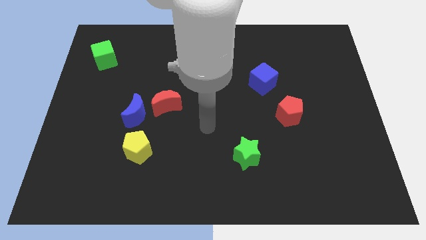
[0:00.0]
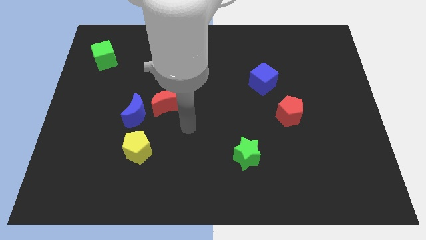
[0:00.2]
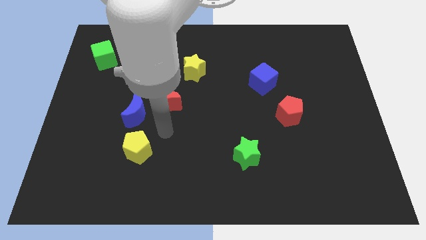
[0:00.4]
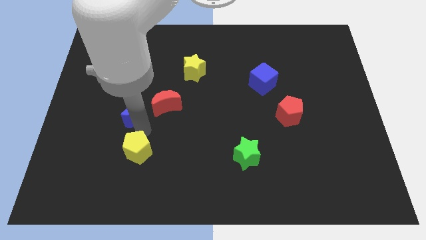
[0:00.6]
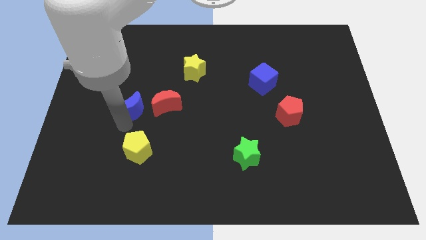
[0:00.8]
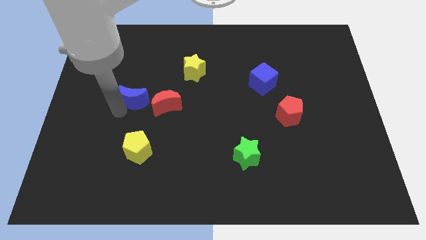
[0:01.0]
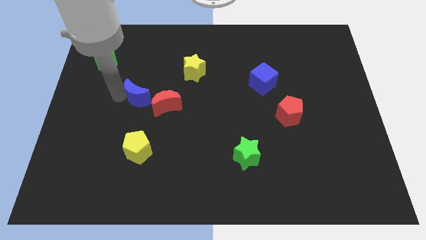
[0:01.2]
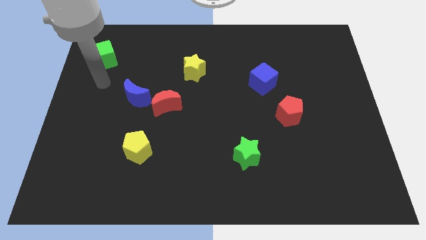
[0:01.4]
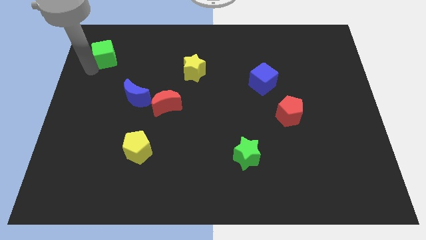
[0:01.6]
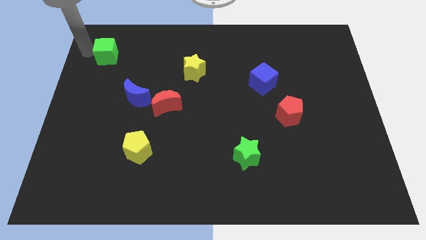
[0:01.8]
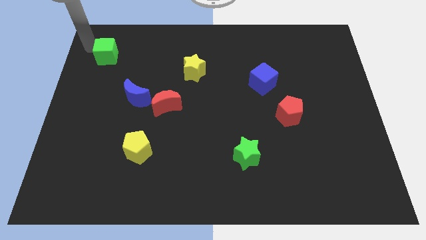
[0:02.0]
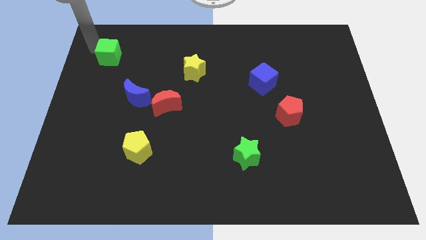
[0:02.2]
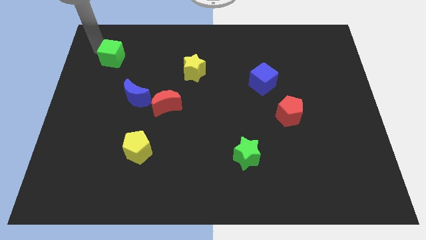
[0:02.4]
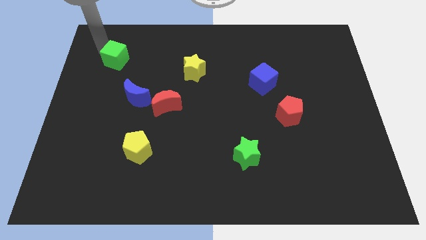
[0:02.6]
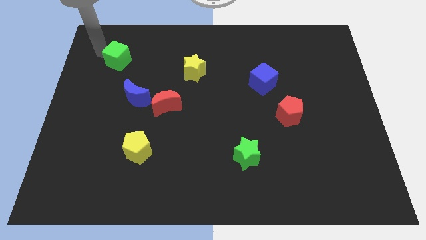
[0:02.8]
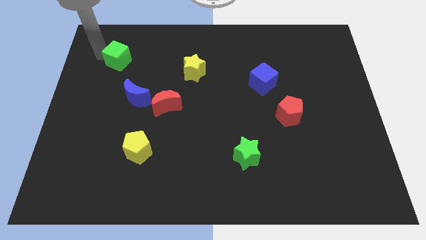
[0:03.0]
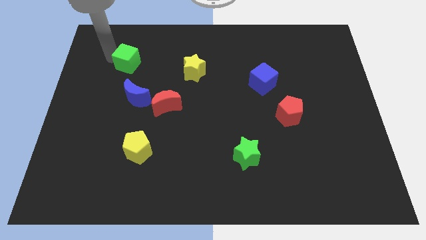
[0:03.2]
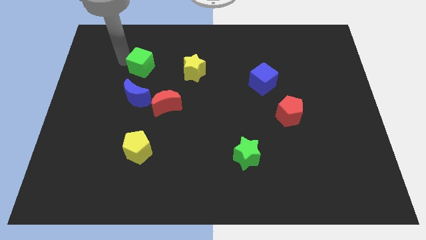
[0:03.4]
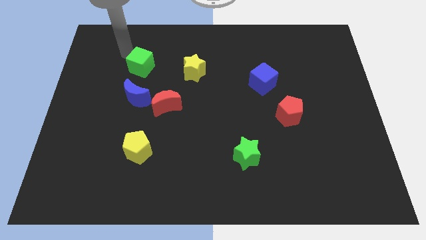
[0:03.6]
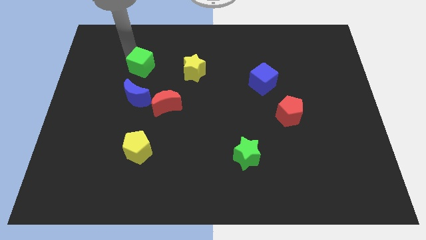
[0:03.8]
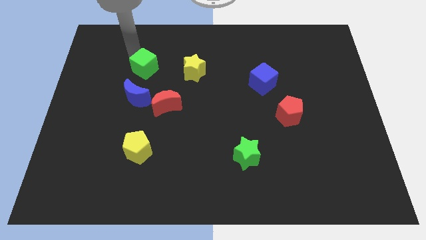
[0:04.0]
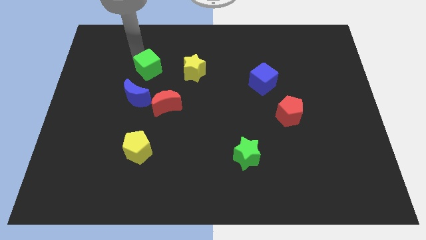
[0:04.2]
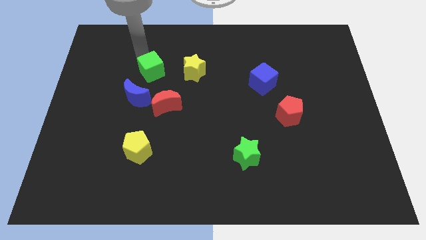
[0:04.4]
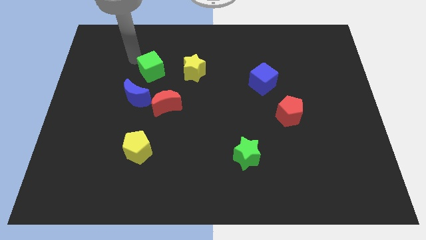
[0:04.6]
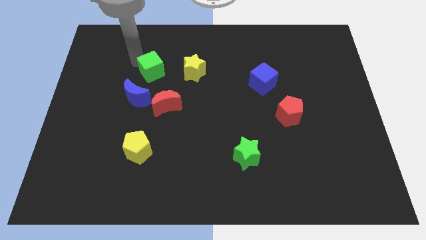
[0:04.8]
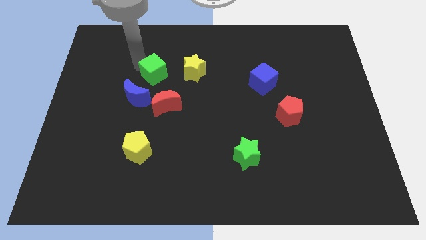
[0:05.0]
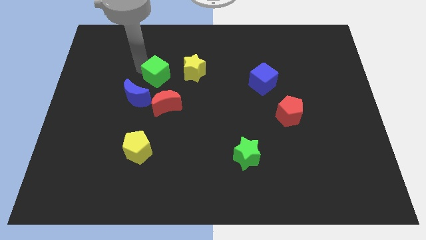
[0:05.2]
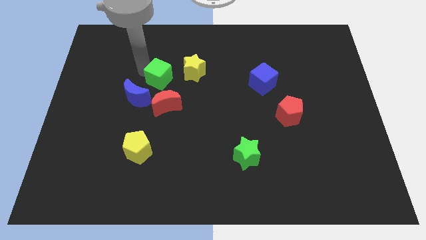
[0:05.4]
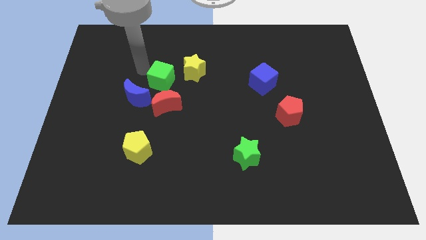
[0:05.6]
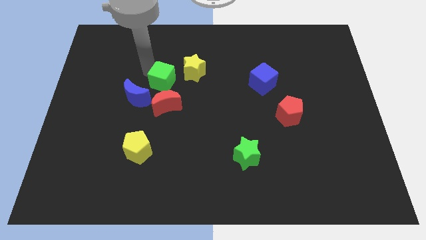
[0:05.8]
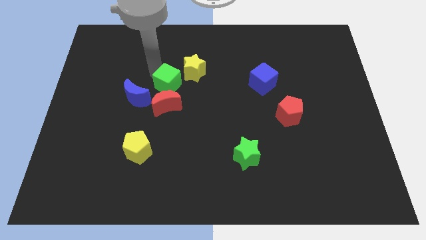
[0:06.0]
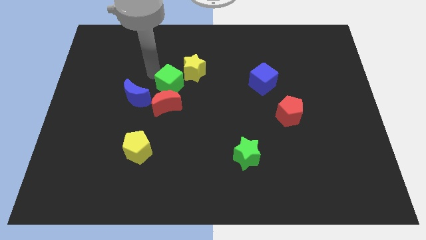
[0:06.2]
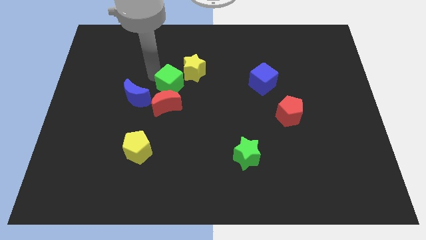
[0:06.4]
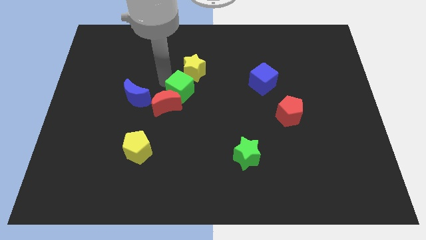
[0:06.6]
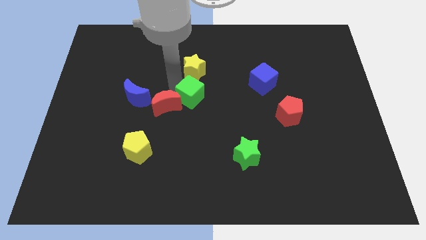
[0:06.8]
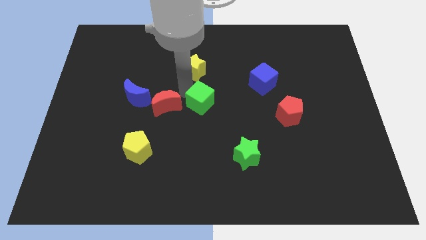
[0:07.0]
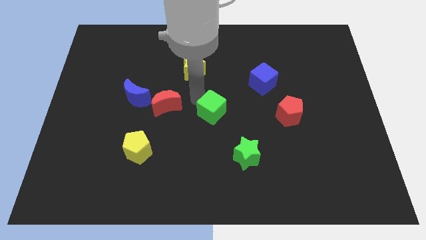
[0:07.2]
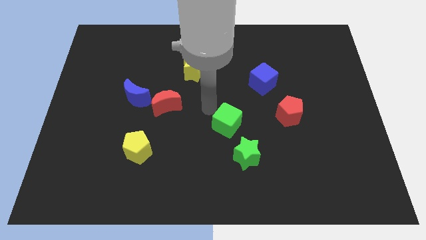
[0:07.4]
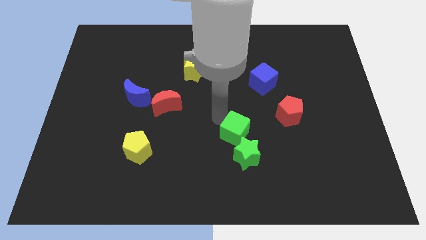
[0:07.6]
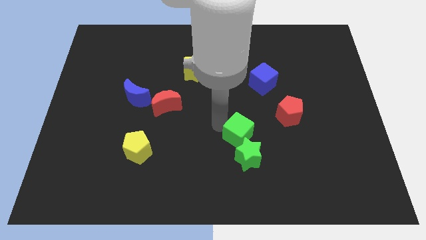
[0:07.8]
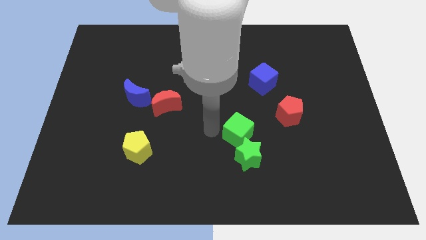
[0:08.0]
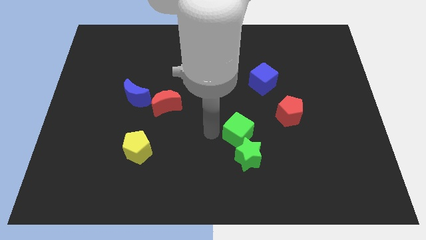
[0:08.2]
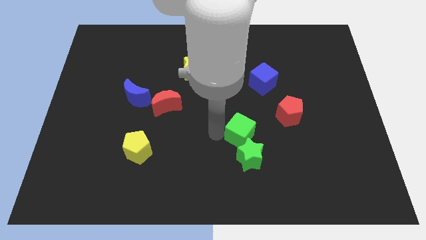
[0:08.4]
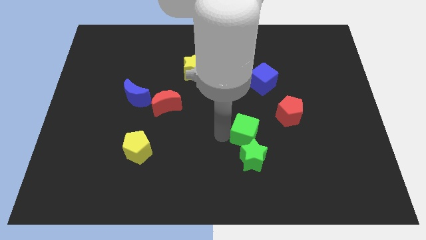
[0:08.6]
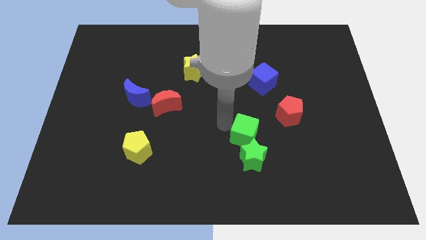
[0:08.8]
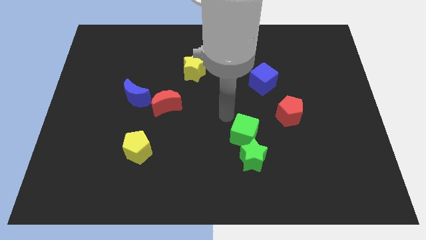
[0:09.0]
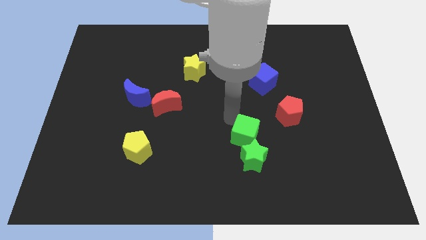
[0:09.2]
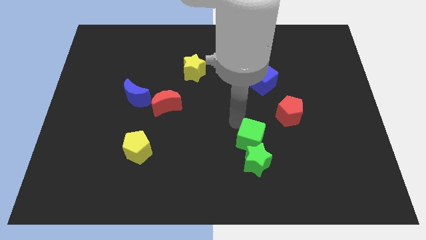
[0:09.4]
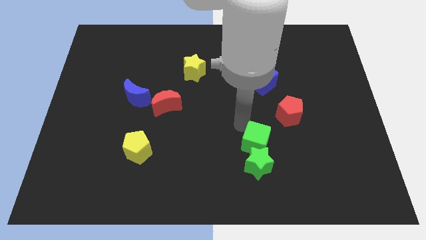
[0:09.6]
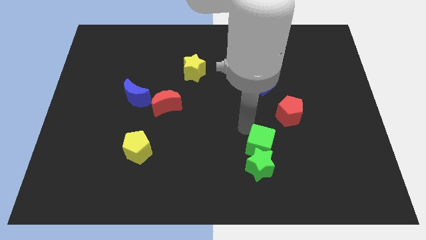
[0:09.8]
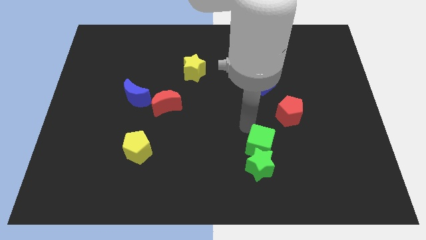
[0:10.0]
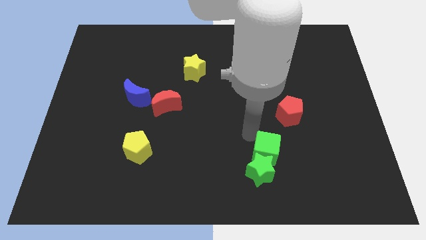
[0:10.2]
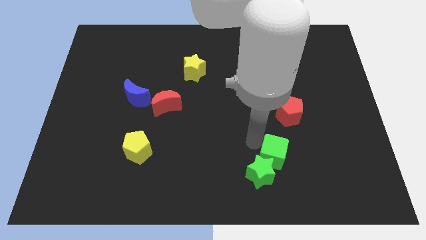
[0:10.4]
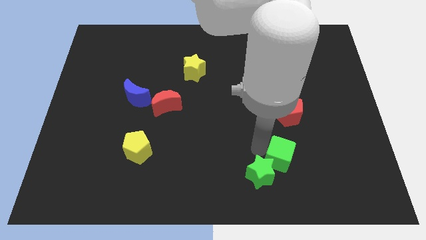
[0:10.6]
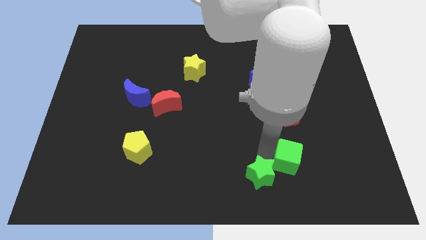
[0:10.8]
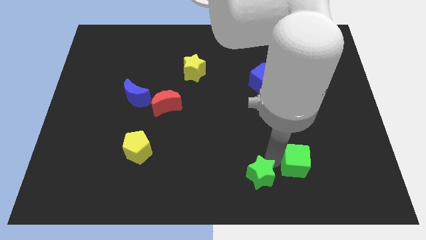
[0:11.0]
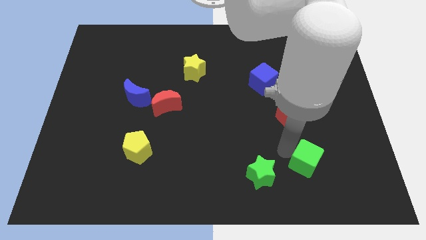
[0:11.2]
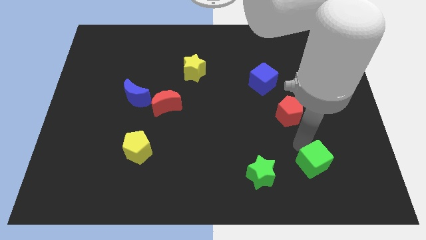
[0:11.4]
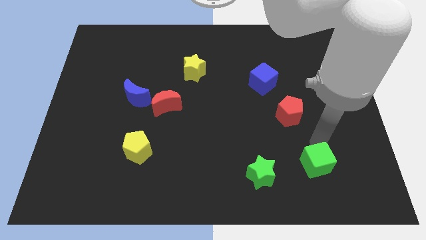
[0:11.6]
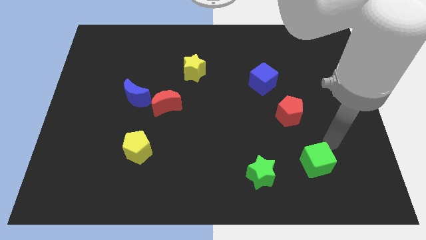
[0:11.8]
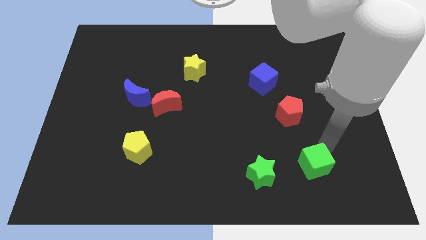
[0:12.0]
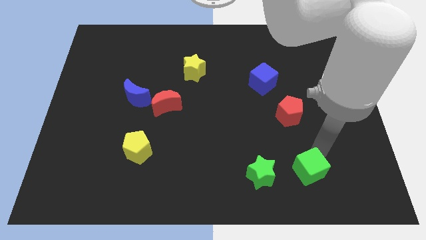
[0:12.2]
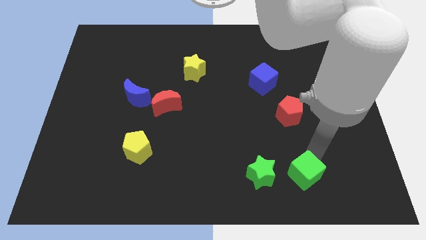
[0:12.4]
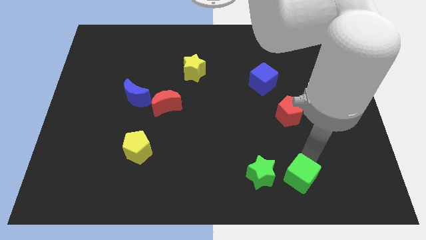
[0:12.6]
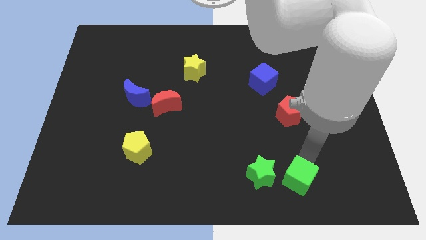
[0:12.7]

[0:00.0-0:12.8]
slide the green cube to the bottom right of the green star
